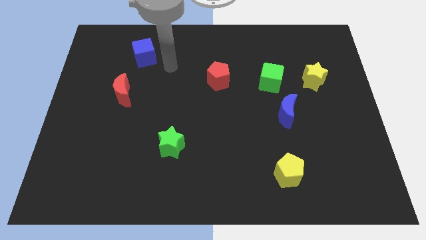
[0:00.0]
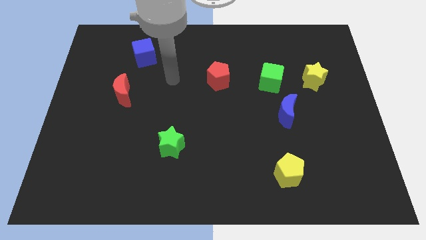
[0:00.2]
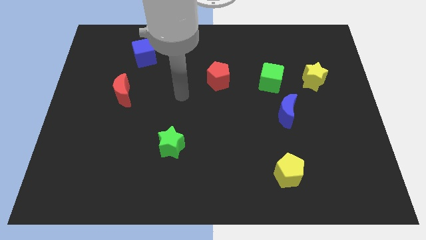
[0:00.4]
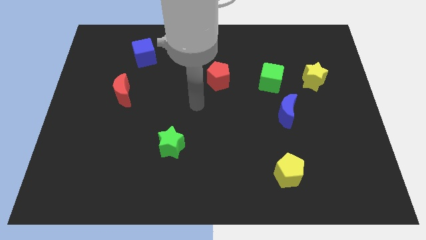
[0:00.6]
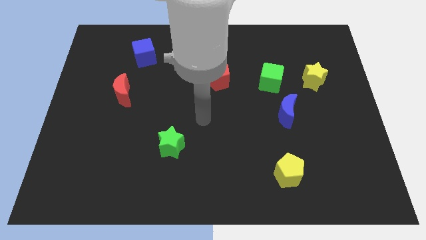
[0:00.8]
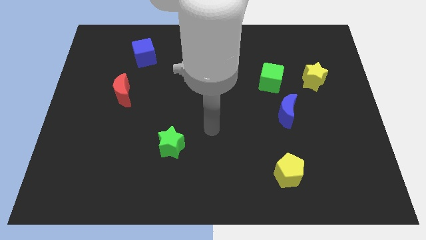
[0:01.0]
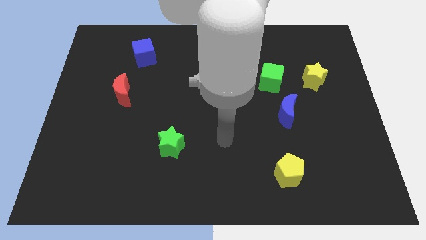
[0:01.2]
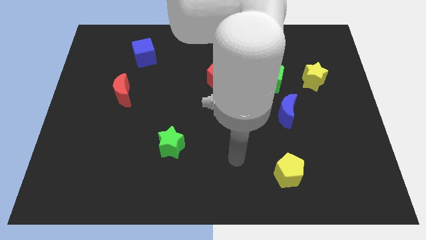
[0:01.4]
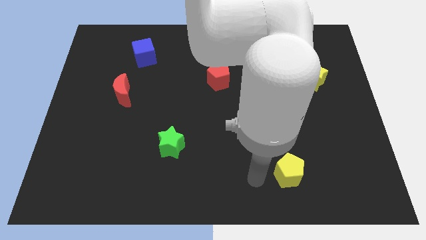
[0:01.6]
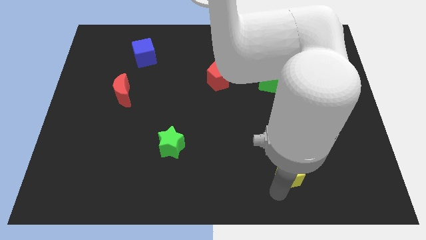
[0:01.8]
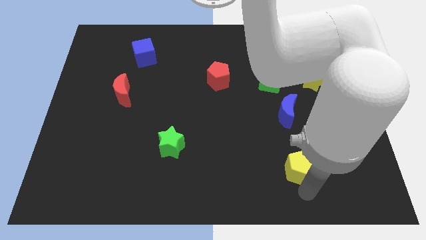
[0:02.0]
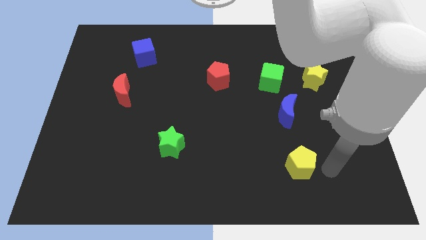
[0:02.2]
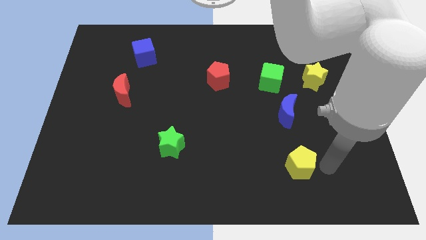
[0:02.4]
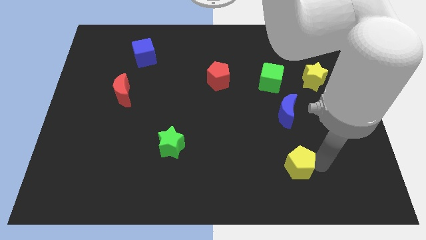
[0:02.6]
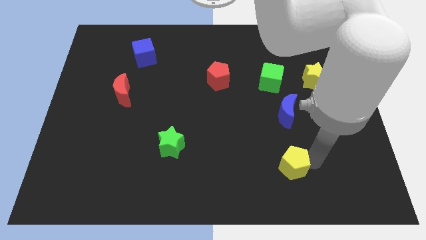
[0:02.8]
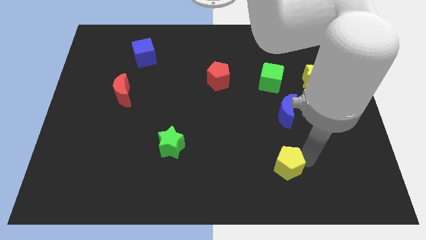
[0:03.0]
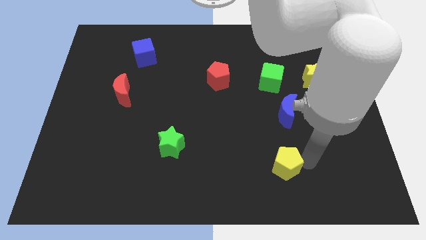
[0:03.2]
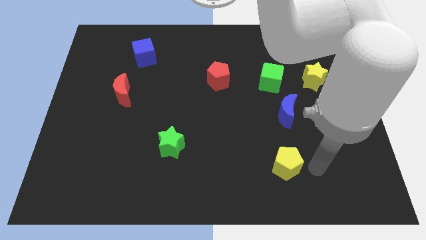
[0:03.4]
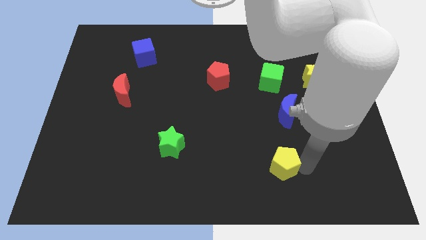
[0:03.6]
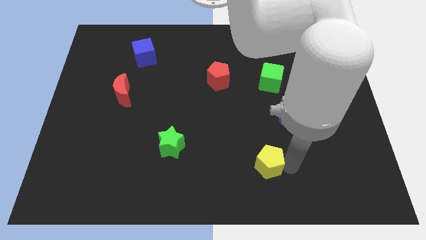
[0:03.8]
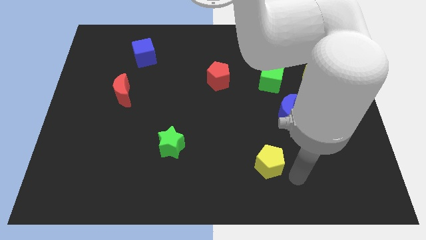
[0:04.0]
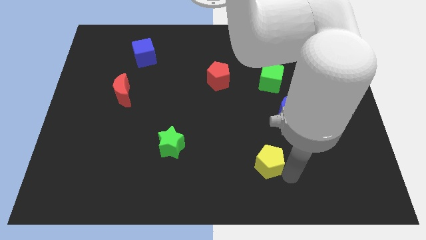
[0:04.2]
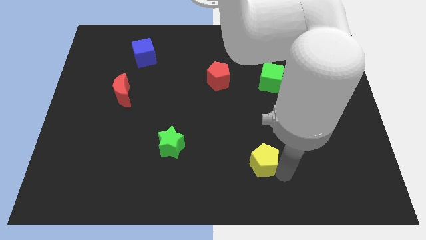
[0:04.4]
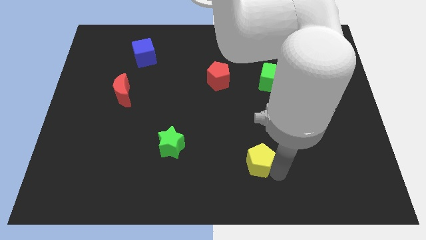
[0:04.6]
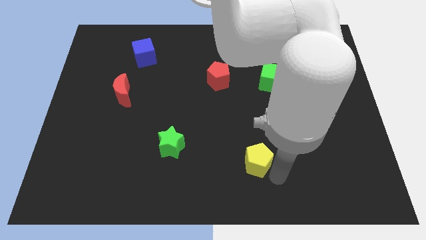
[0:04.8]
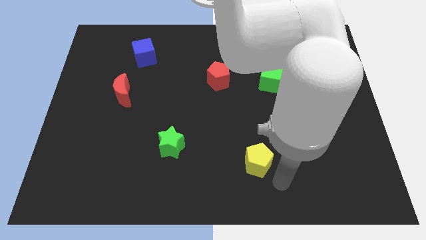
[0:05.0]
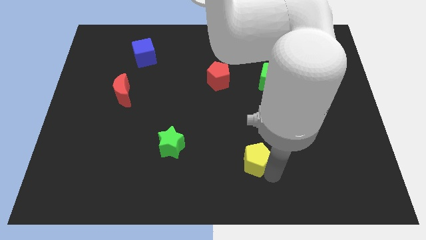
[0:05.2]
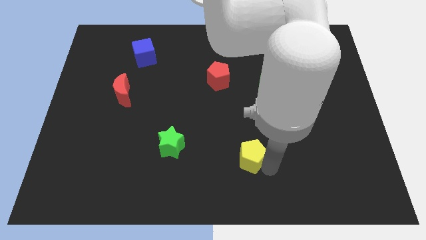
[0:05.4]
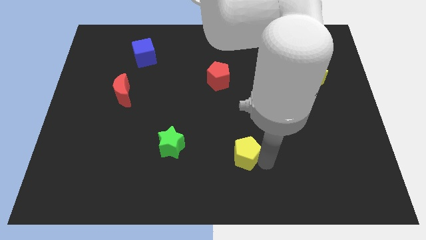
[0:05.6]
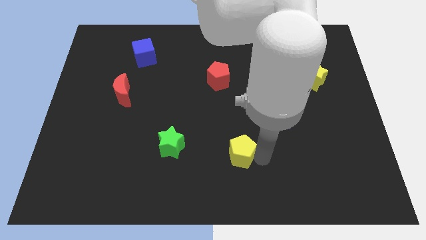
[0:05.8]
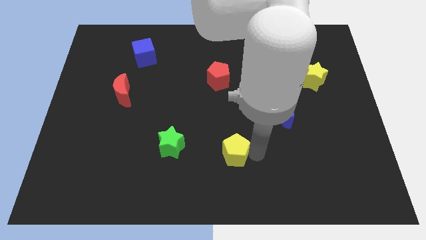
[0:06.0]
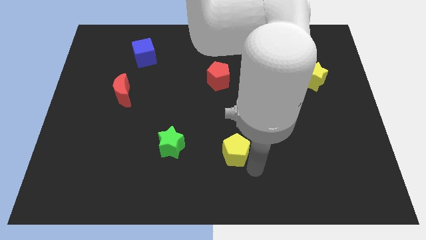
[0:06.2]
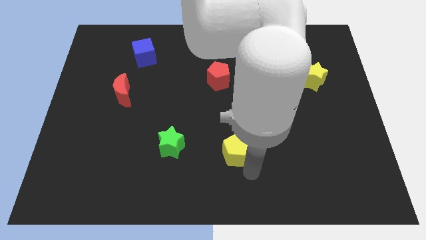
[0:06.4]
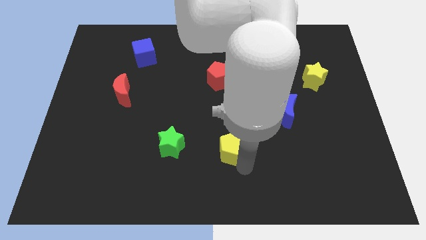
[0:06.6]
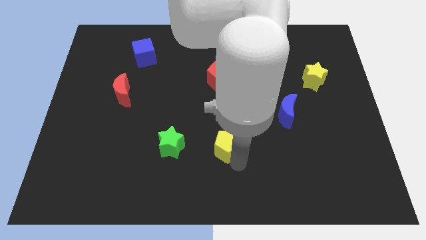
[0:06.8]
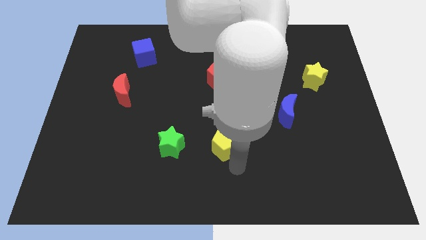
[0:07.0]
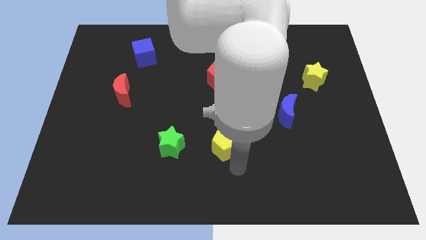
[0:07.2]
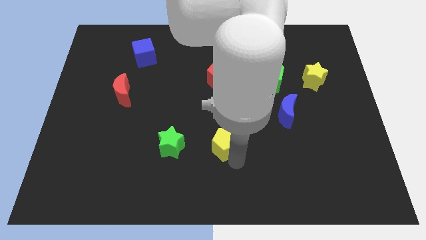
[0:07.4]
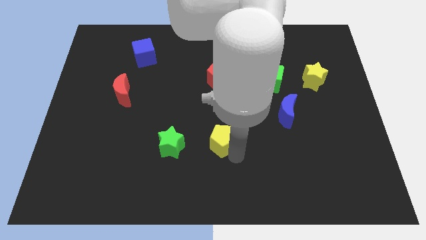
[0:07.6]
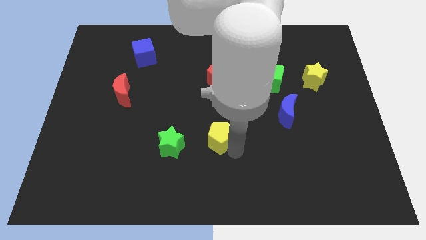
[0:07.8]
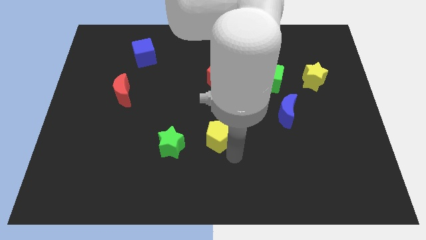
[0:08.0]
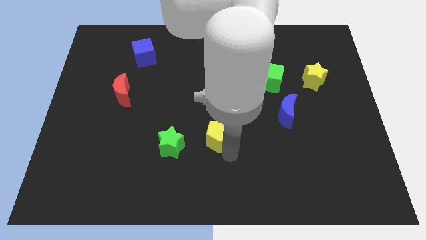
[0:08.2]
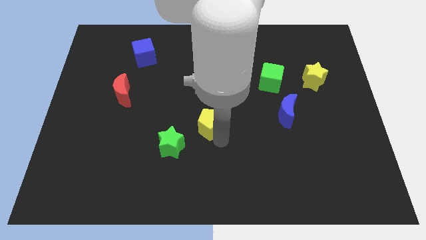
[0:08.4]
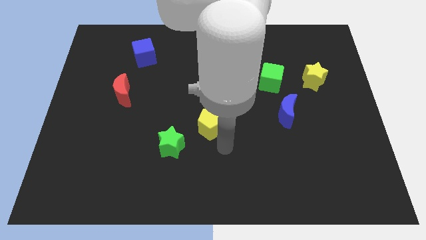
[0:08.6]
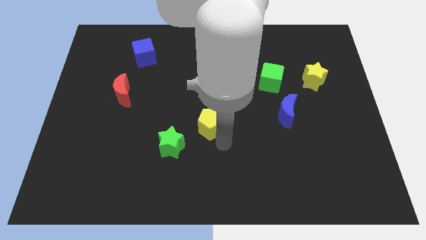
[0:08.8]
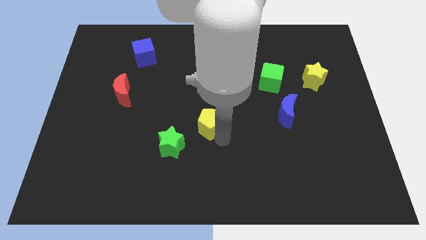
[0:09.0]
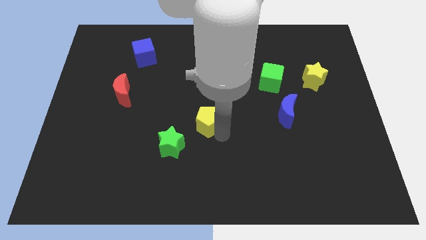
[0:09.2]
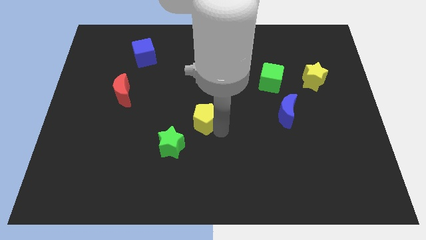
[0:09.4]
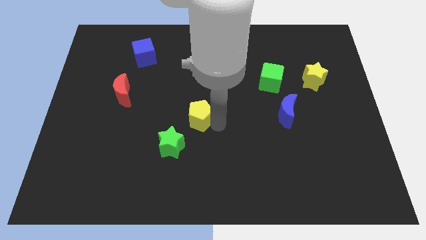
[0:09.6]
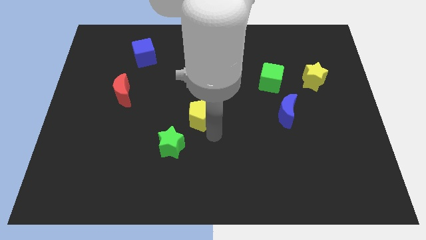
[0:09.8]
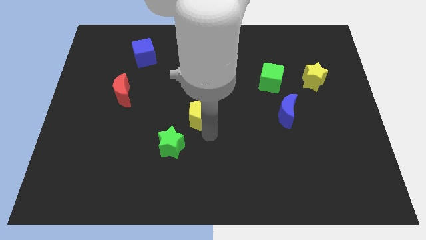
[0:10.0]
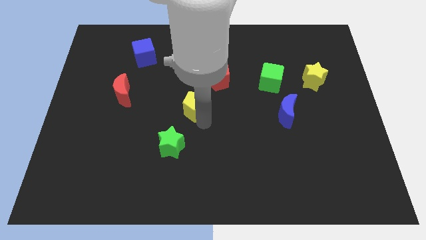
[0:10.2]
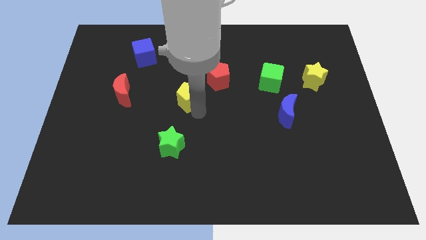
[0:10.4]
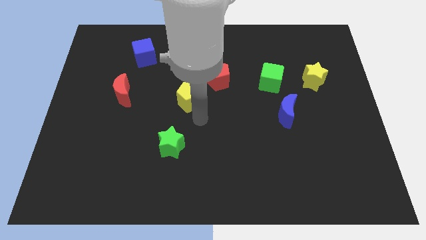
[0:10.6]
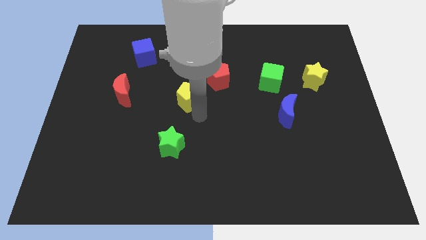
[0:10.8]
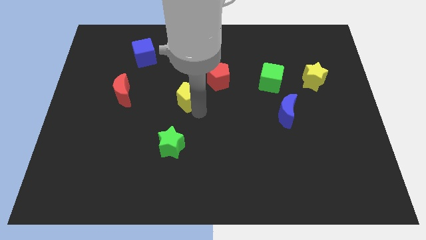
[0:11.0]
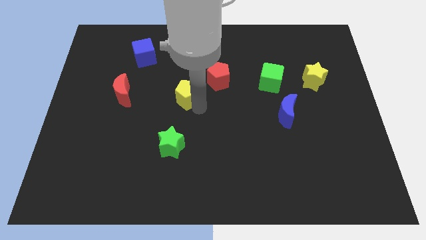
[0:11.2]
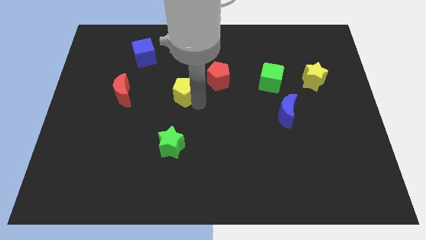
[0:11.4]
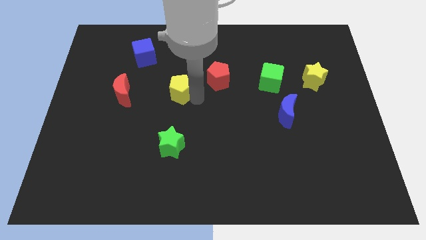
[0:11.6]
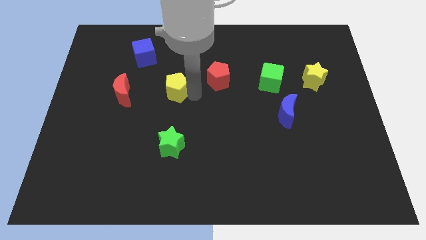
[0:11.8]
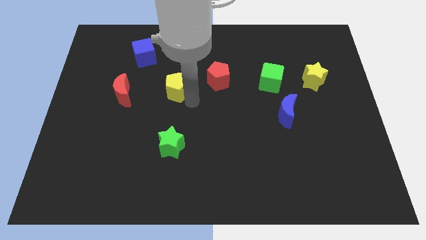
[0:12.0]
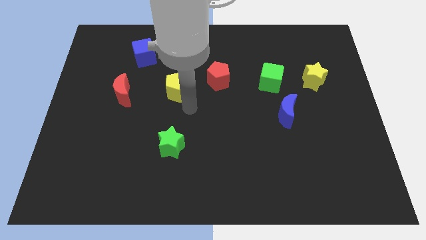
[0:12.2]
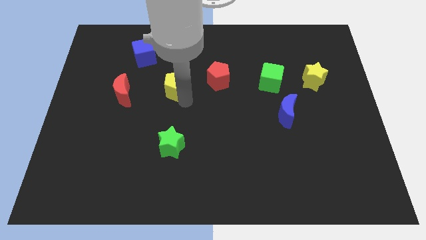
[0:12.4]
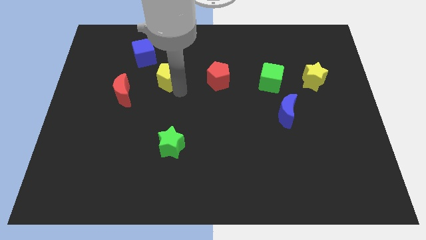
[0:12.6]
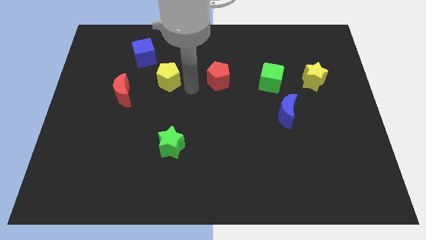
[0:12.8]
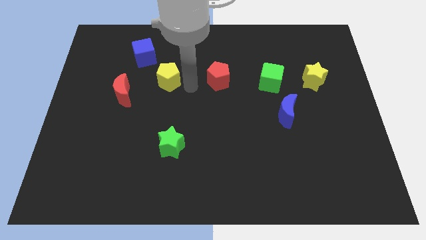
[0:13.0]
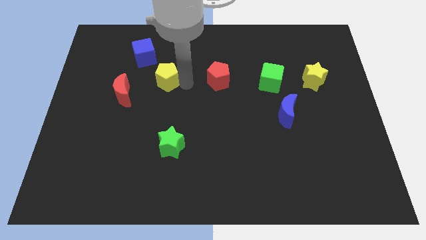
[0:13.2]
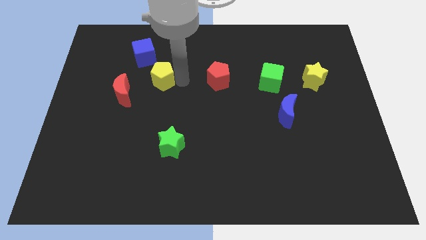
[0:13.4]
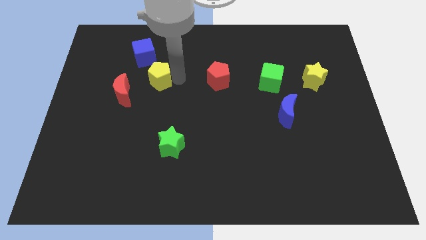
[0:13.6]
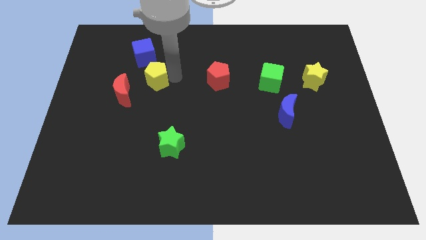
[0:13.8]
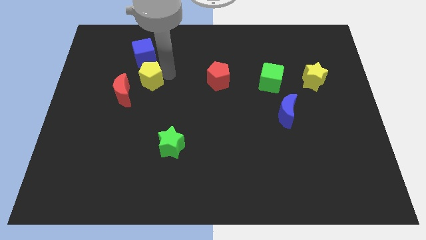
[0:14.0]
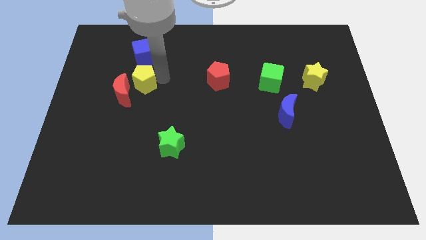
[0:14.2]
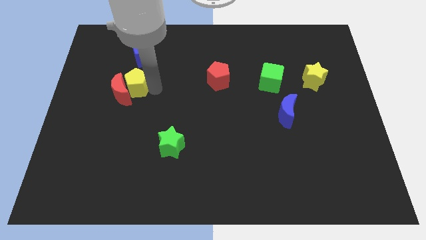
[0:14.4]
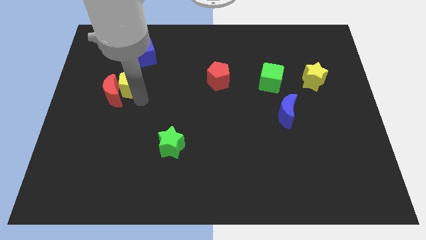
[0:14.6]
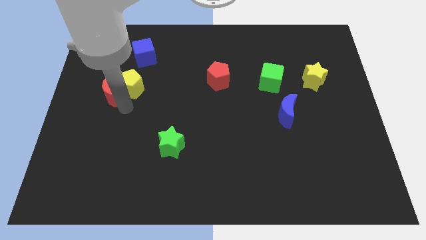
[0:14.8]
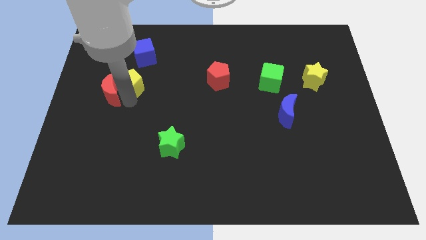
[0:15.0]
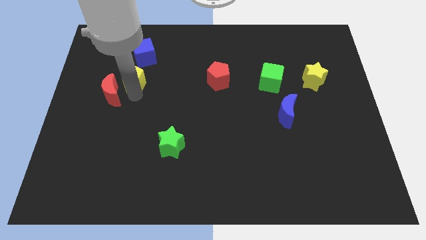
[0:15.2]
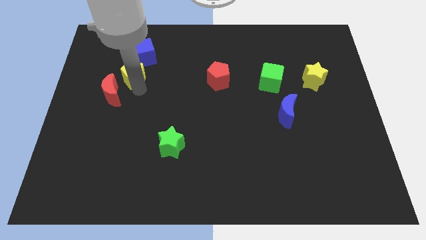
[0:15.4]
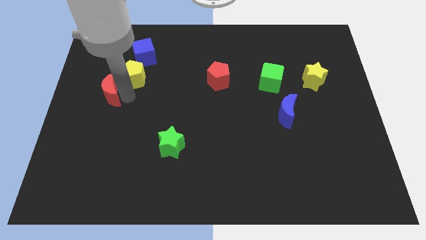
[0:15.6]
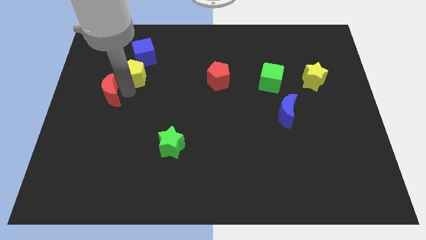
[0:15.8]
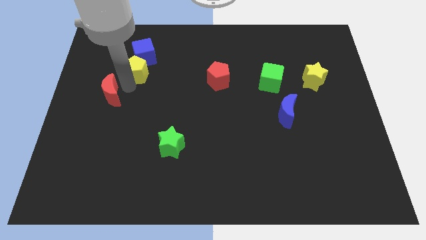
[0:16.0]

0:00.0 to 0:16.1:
push the yellow pentagon to the blue cube

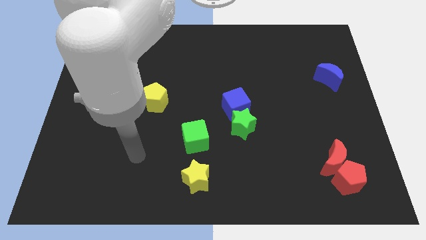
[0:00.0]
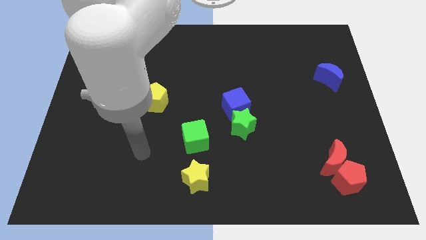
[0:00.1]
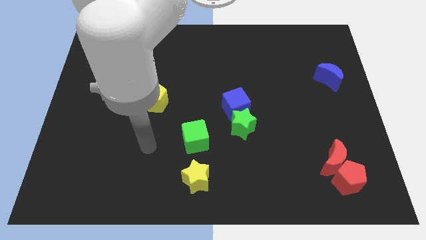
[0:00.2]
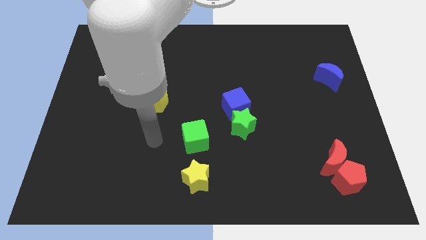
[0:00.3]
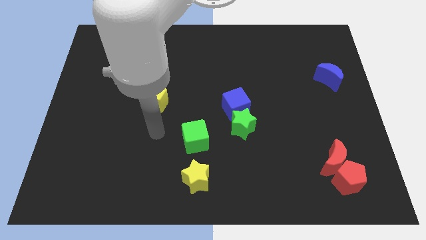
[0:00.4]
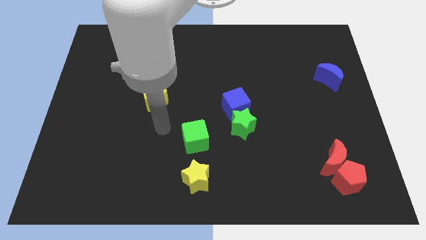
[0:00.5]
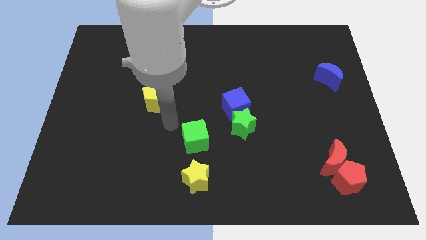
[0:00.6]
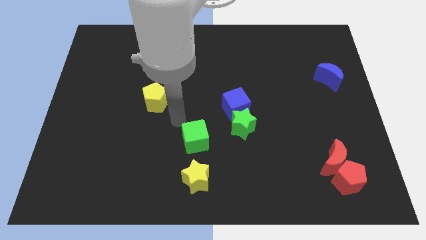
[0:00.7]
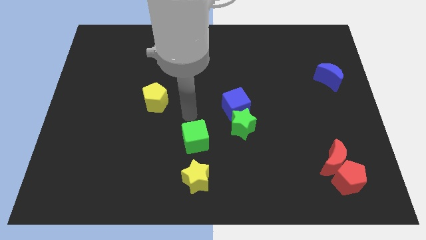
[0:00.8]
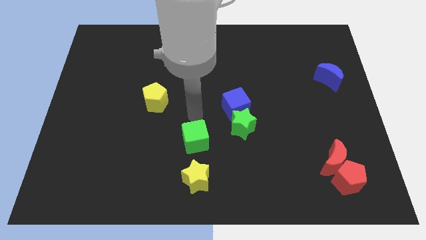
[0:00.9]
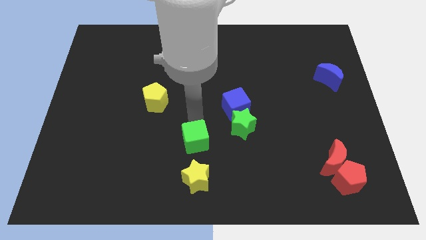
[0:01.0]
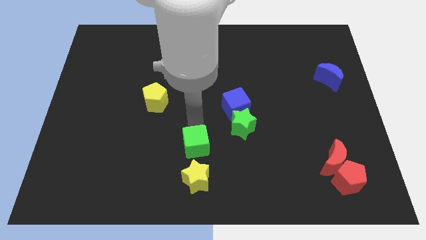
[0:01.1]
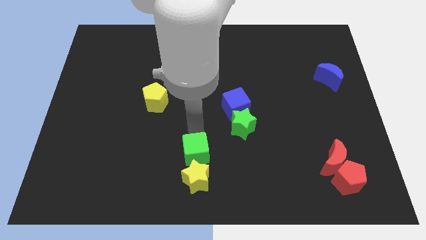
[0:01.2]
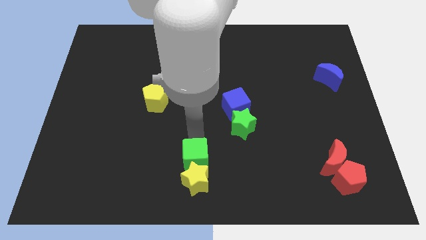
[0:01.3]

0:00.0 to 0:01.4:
move the green cube close to the yellow star
